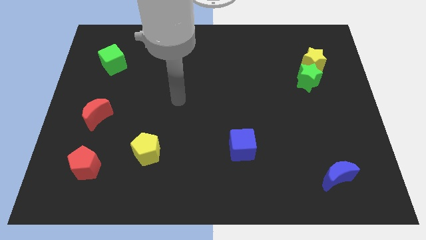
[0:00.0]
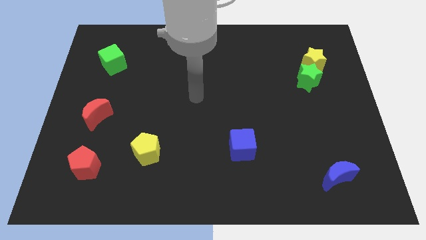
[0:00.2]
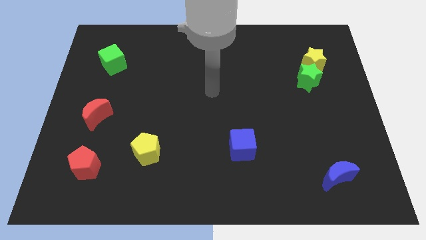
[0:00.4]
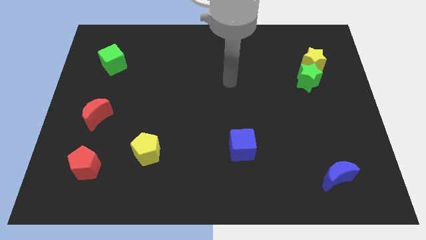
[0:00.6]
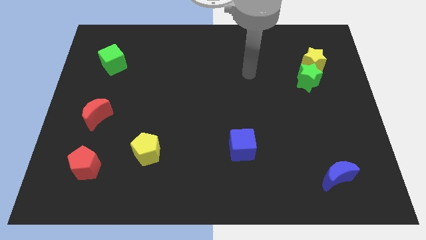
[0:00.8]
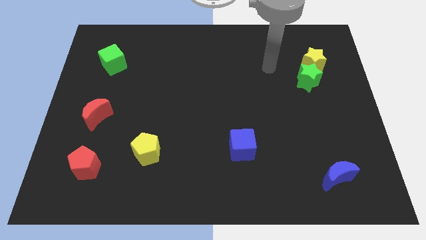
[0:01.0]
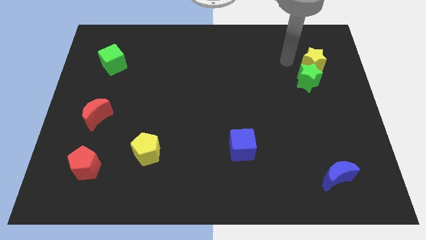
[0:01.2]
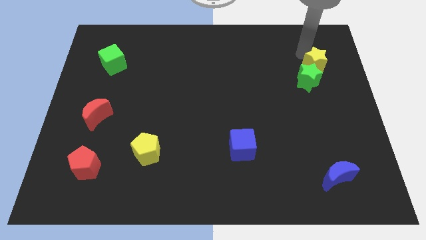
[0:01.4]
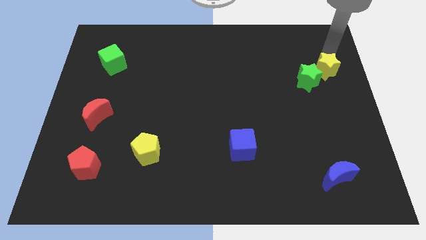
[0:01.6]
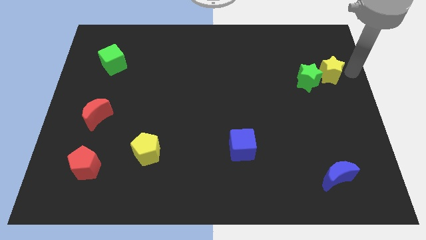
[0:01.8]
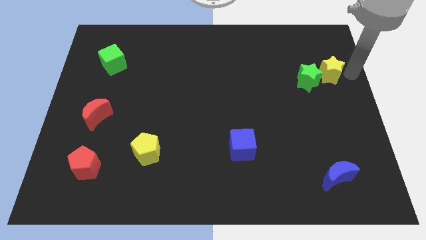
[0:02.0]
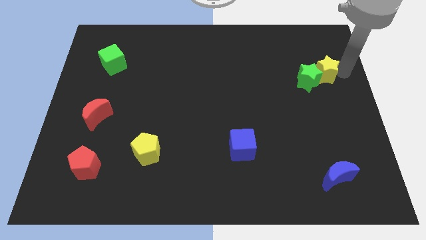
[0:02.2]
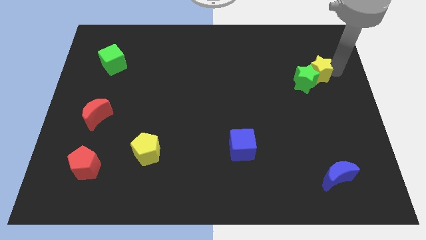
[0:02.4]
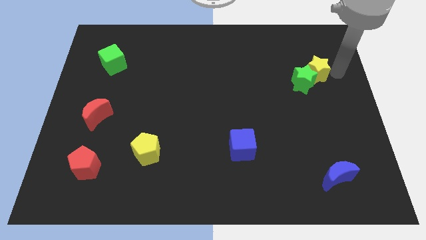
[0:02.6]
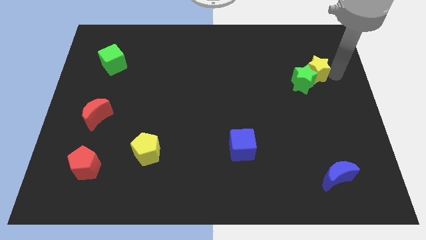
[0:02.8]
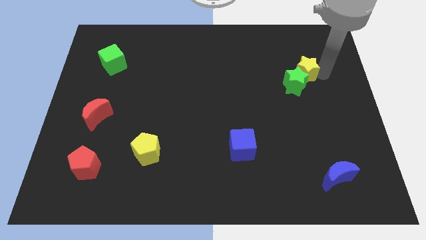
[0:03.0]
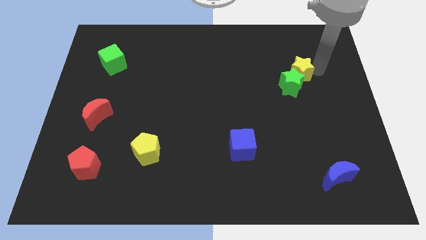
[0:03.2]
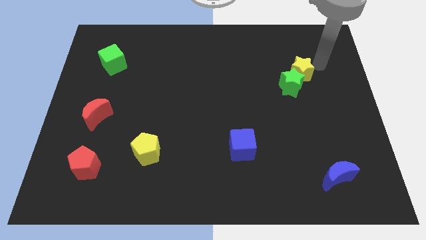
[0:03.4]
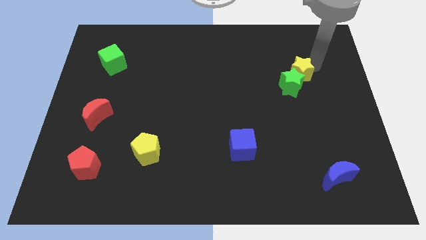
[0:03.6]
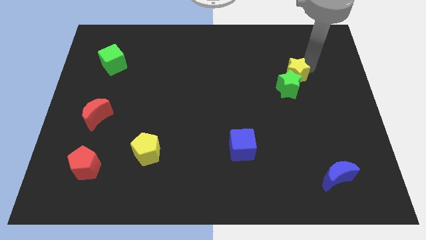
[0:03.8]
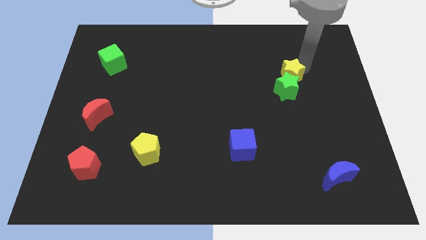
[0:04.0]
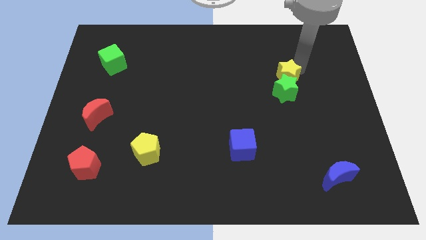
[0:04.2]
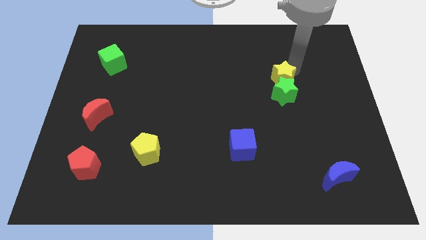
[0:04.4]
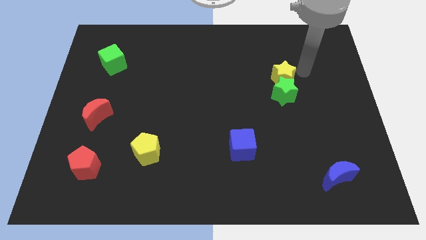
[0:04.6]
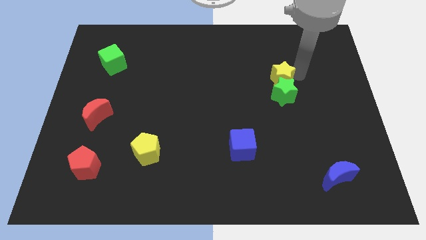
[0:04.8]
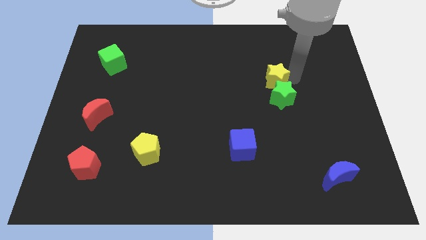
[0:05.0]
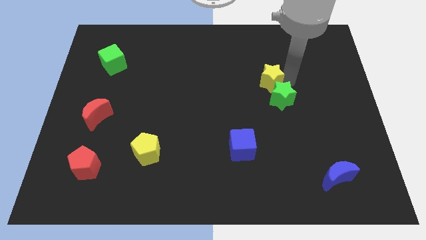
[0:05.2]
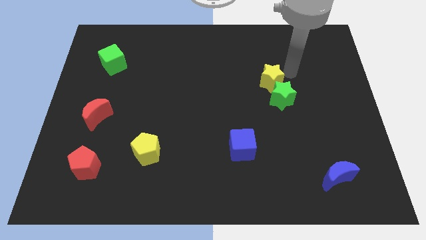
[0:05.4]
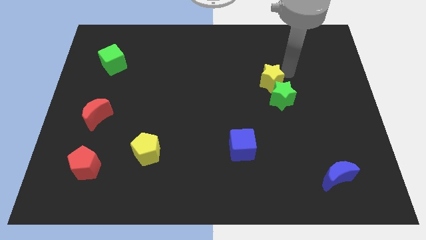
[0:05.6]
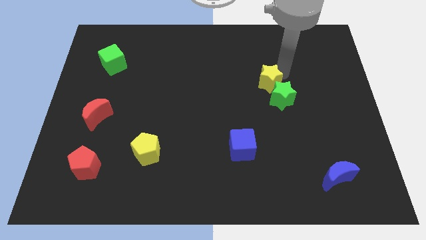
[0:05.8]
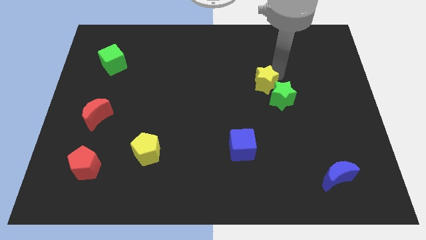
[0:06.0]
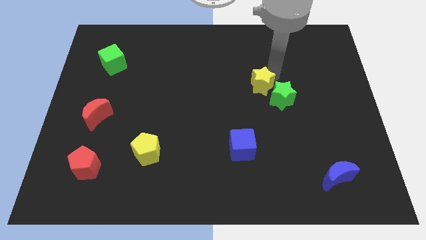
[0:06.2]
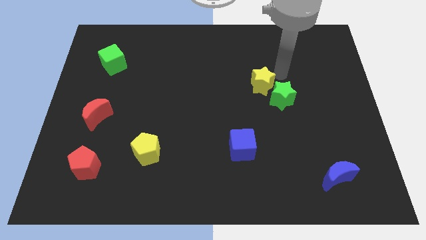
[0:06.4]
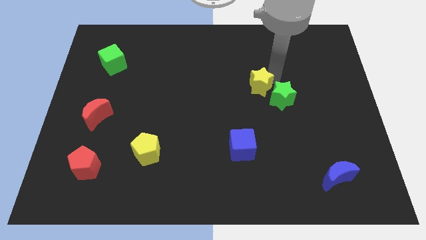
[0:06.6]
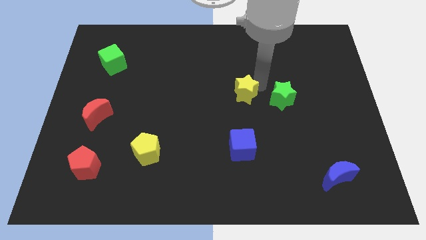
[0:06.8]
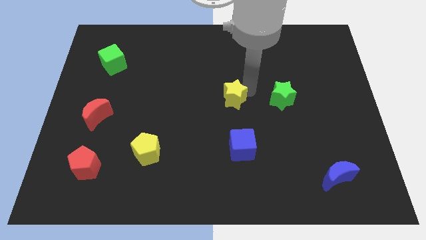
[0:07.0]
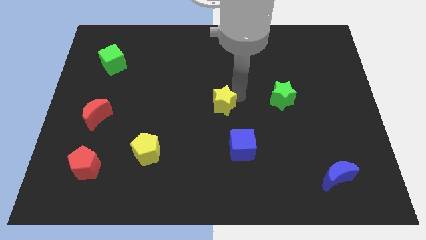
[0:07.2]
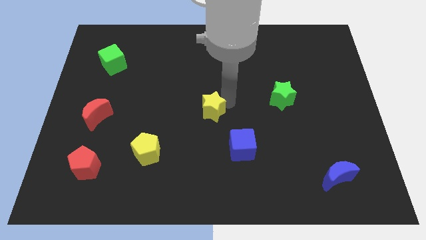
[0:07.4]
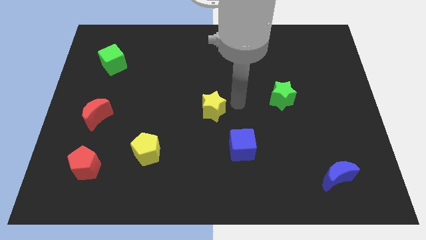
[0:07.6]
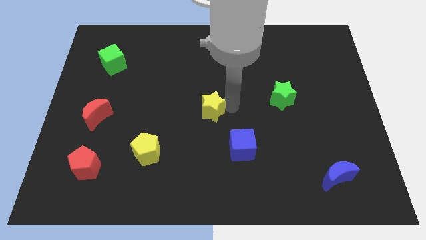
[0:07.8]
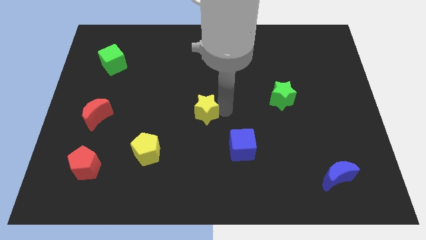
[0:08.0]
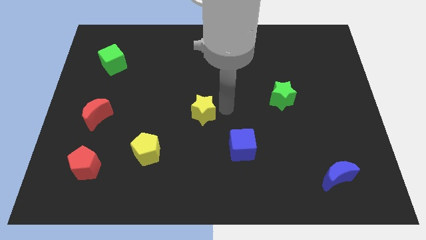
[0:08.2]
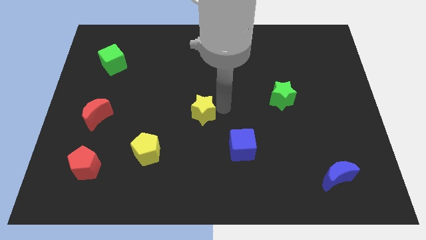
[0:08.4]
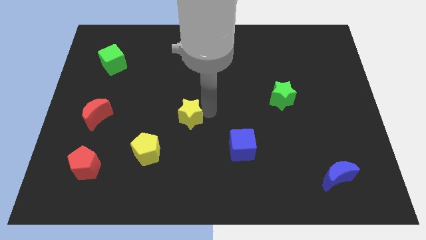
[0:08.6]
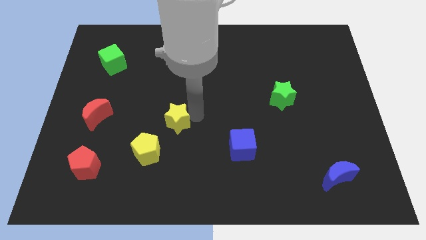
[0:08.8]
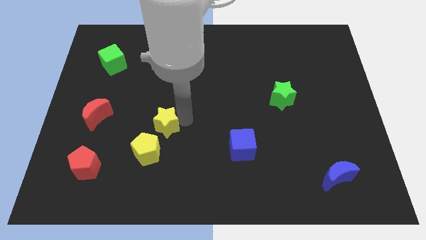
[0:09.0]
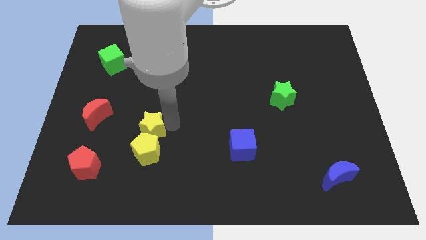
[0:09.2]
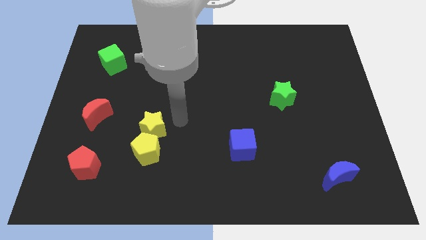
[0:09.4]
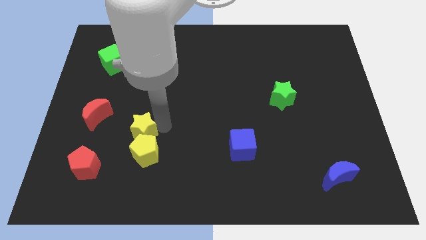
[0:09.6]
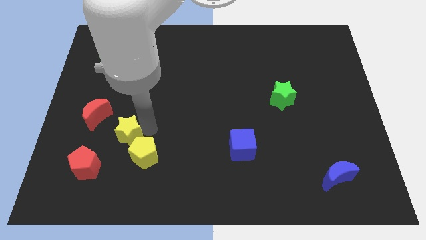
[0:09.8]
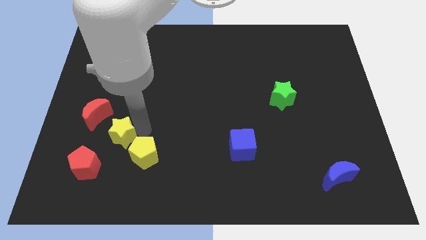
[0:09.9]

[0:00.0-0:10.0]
put the yellow star just left of the yellow pentagon

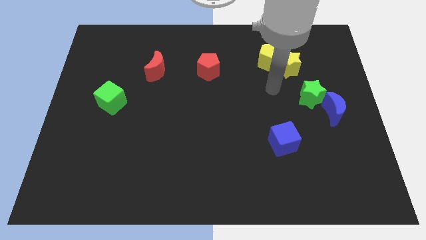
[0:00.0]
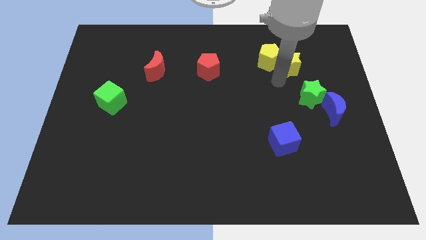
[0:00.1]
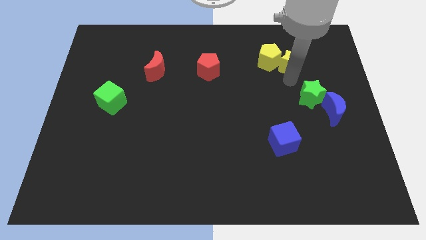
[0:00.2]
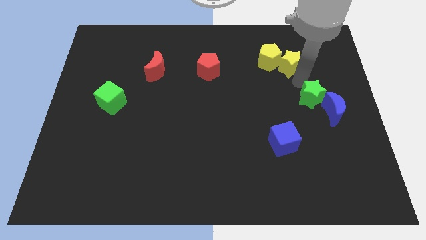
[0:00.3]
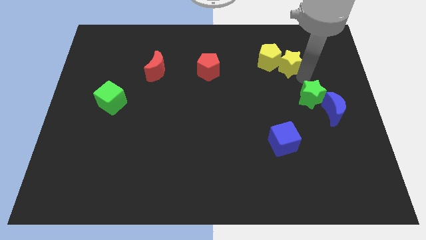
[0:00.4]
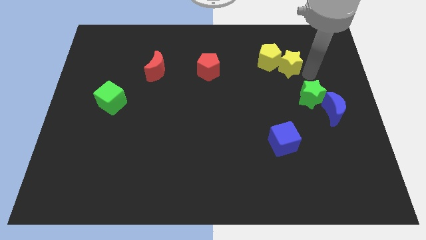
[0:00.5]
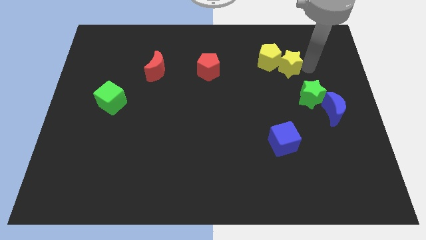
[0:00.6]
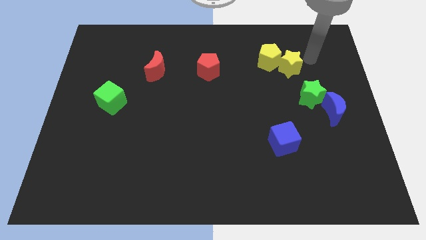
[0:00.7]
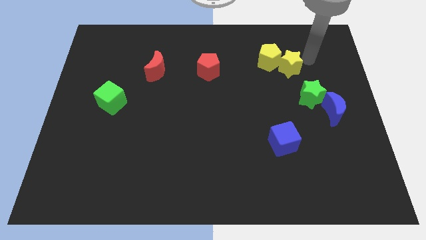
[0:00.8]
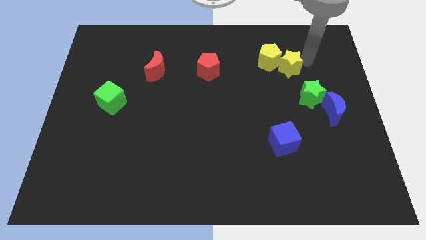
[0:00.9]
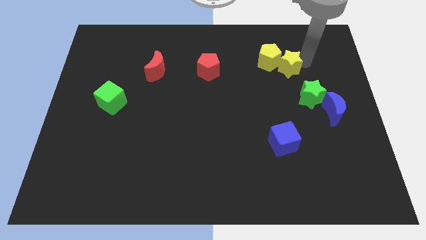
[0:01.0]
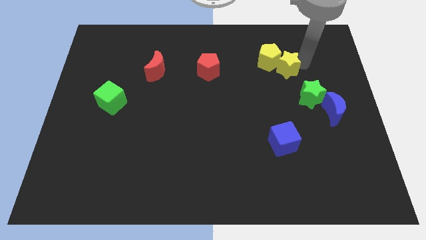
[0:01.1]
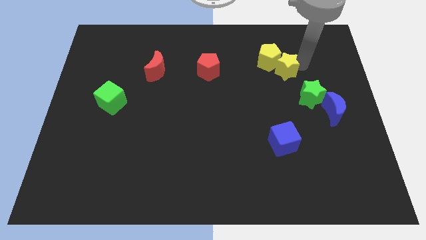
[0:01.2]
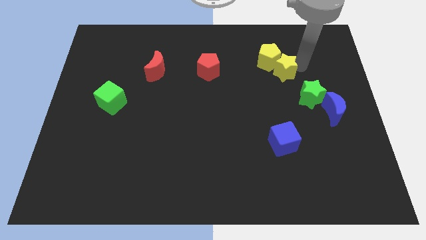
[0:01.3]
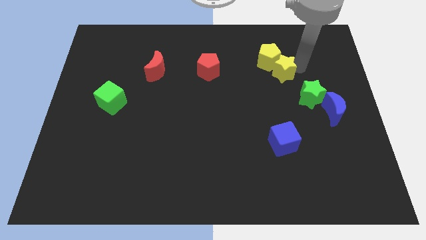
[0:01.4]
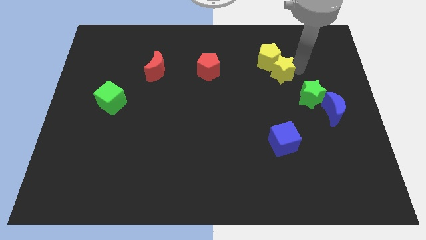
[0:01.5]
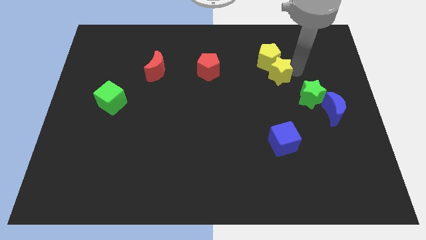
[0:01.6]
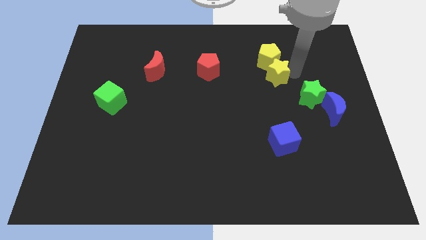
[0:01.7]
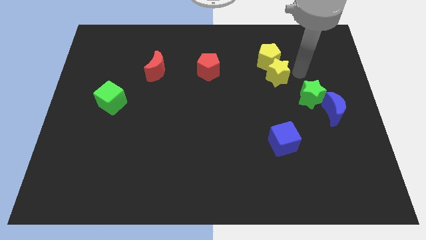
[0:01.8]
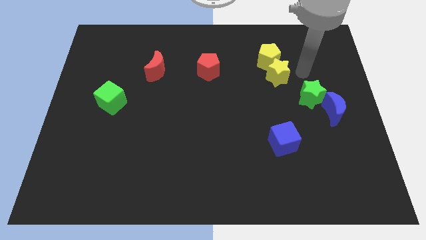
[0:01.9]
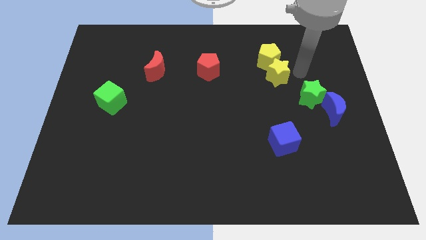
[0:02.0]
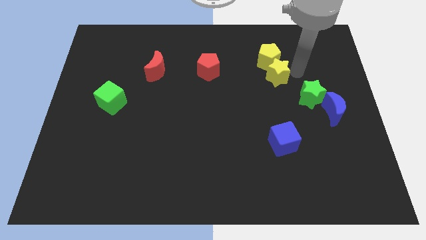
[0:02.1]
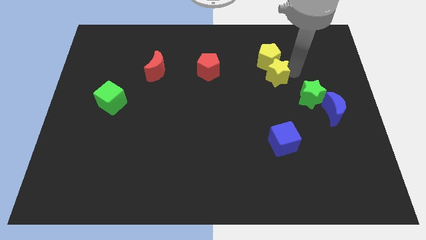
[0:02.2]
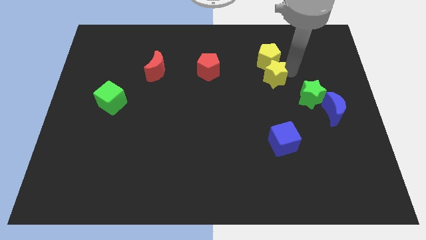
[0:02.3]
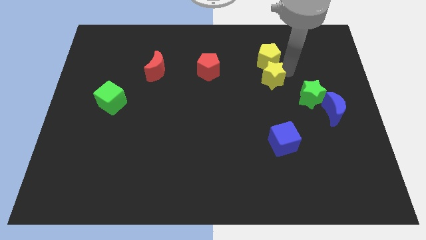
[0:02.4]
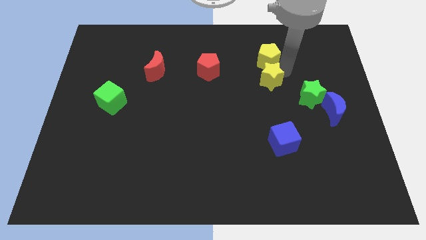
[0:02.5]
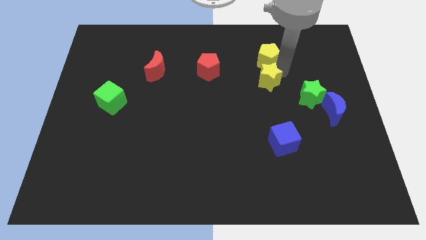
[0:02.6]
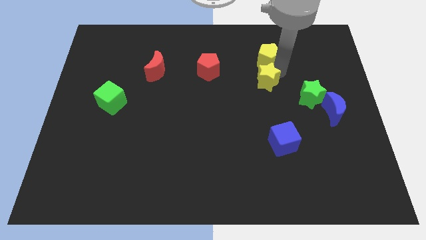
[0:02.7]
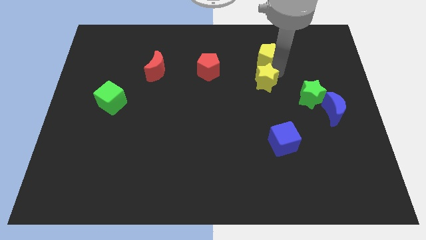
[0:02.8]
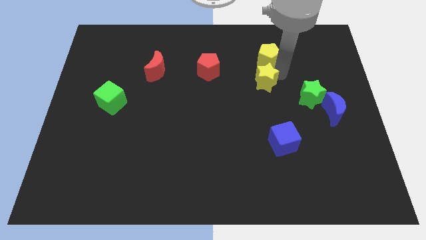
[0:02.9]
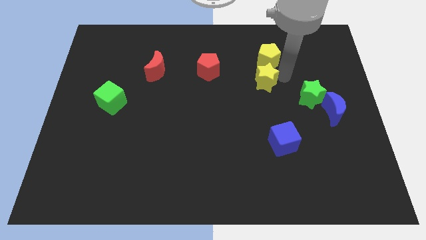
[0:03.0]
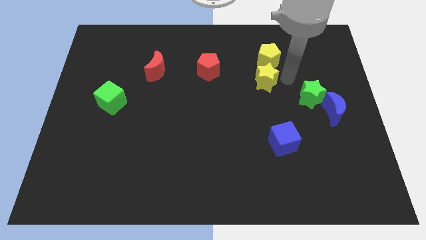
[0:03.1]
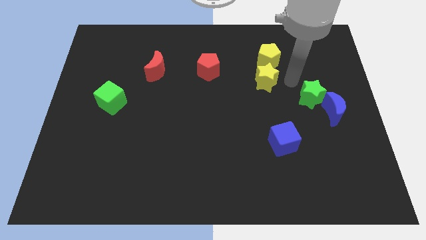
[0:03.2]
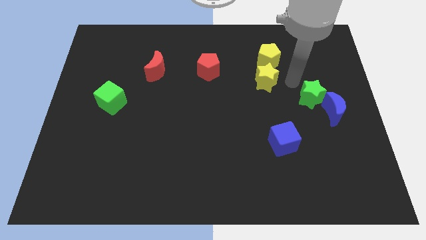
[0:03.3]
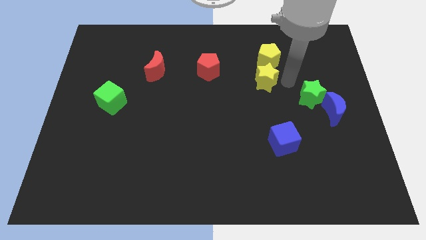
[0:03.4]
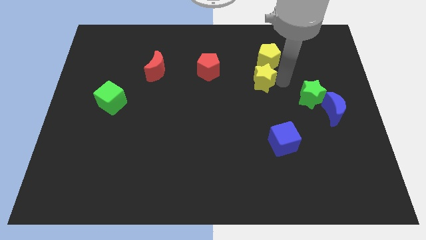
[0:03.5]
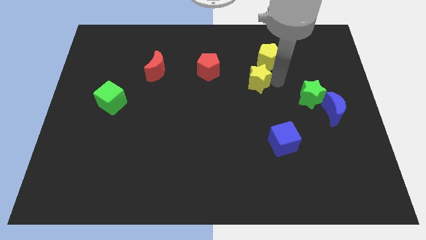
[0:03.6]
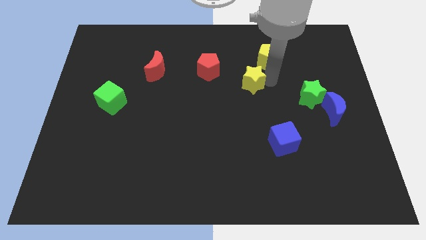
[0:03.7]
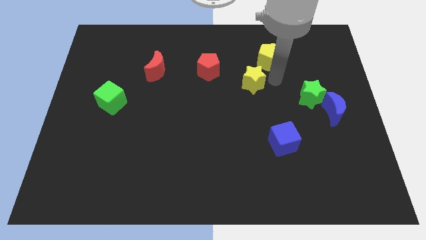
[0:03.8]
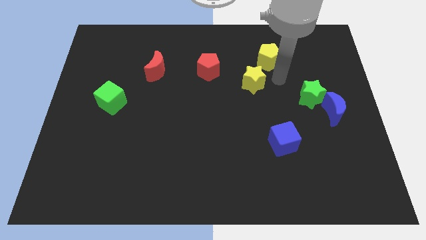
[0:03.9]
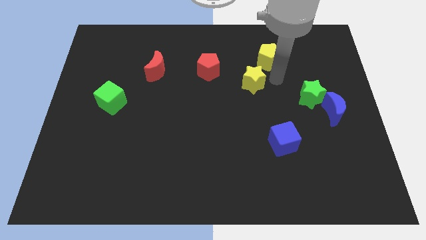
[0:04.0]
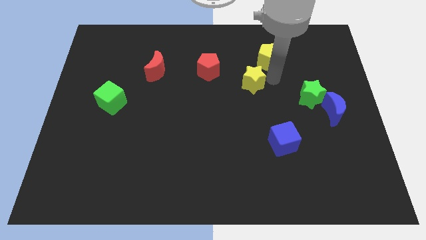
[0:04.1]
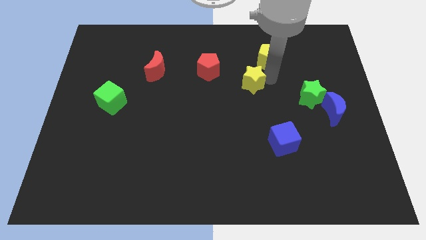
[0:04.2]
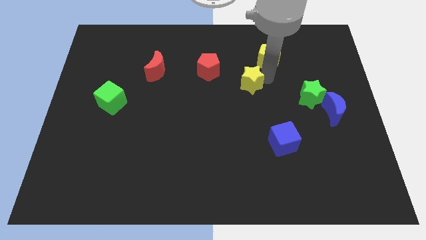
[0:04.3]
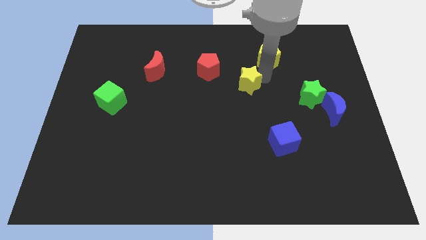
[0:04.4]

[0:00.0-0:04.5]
put the yellow star to the bottom right of the red pentagon
